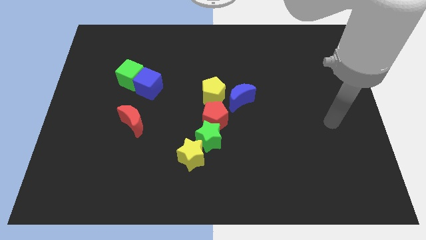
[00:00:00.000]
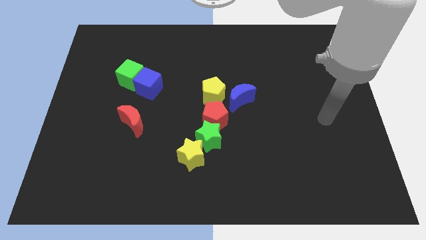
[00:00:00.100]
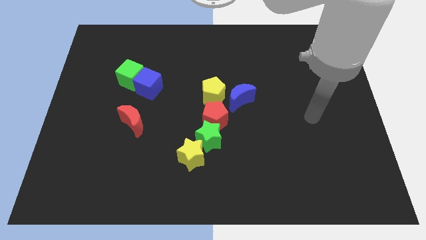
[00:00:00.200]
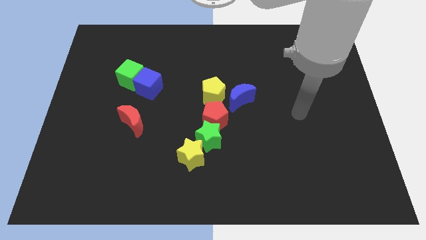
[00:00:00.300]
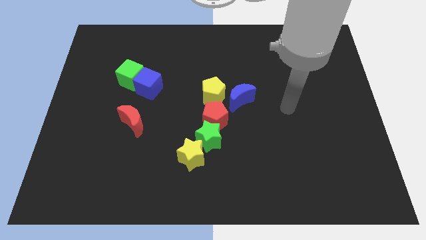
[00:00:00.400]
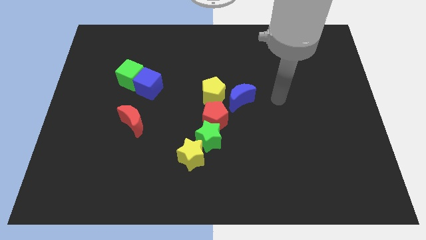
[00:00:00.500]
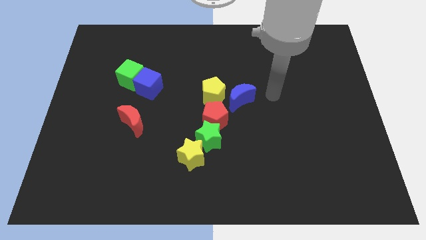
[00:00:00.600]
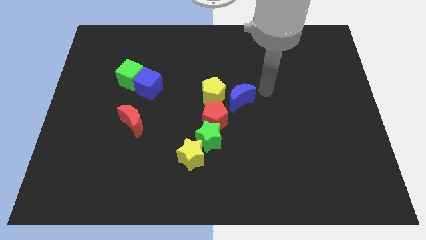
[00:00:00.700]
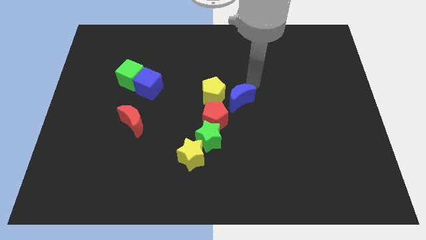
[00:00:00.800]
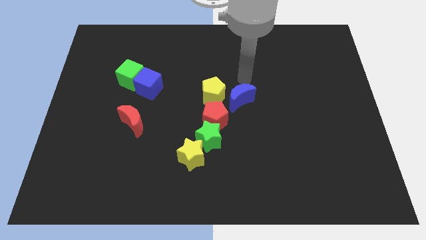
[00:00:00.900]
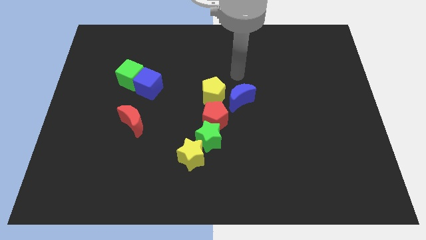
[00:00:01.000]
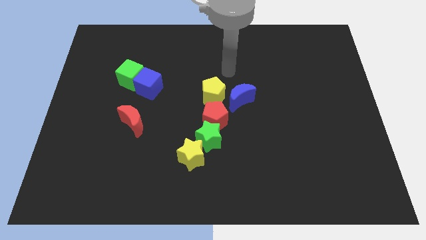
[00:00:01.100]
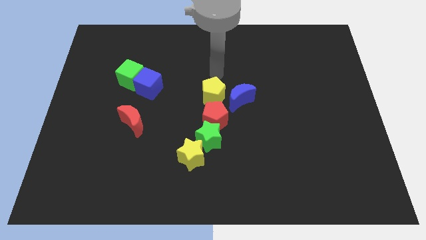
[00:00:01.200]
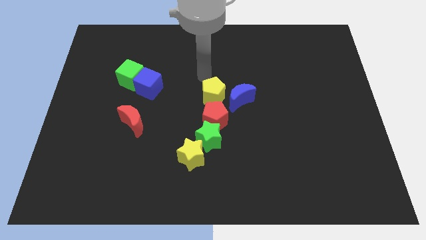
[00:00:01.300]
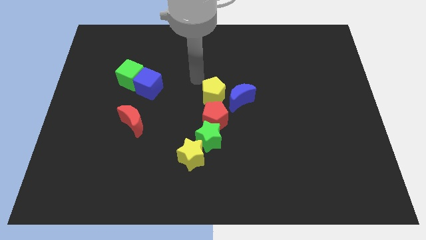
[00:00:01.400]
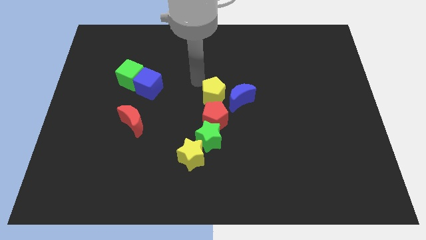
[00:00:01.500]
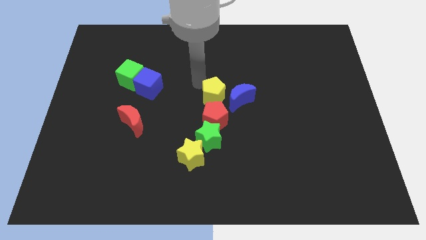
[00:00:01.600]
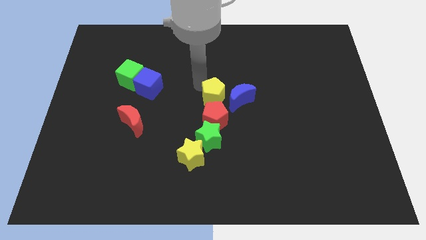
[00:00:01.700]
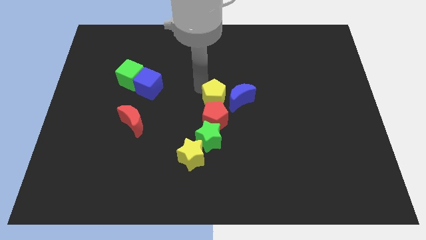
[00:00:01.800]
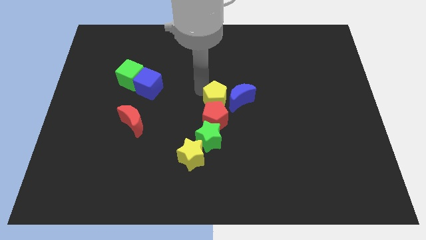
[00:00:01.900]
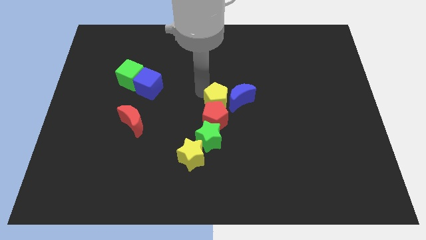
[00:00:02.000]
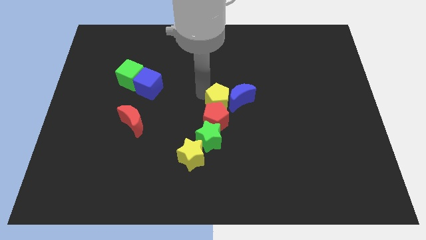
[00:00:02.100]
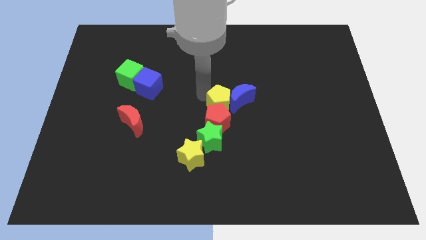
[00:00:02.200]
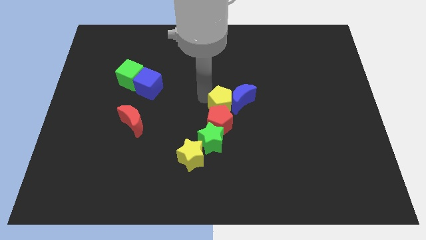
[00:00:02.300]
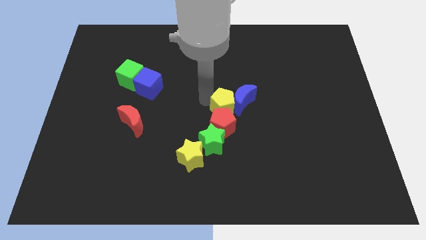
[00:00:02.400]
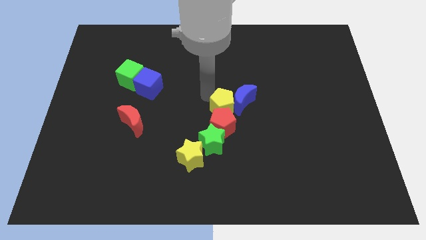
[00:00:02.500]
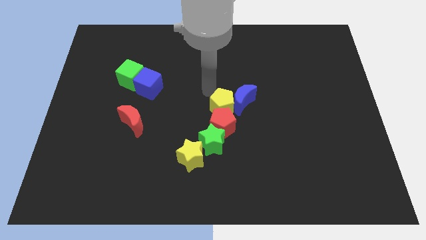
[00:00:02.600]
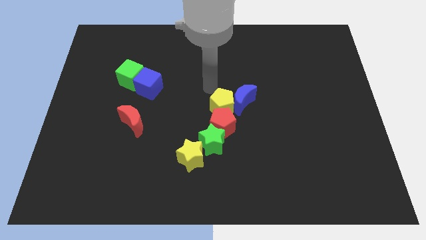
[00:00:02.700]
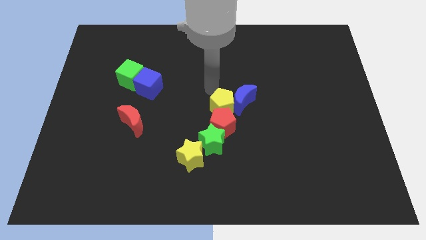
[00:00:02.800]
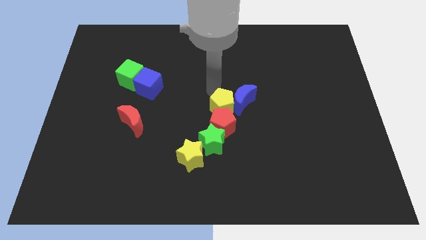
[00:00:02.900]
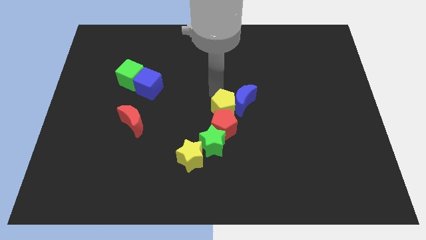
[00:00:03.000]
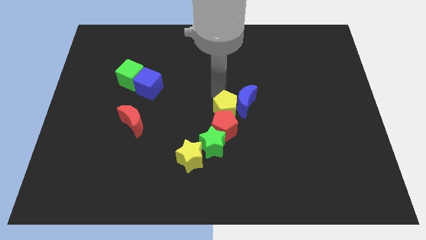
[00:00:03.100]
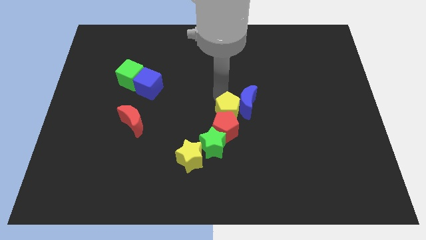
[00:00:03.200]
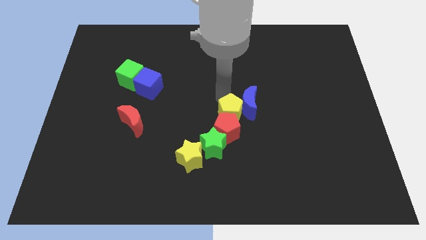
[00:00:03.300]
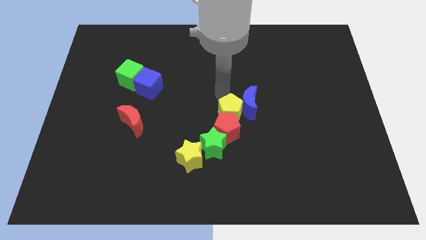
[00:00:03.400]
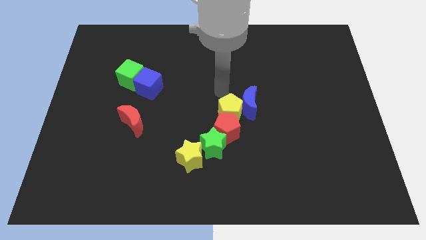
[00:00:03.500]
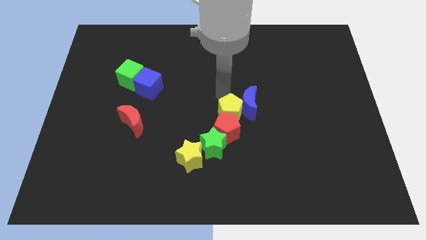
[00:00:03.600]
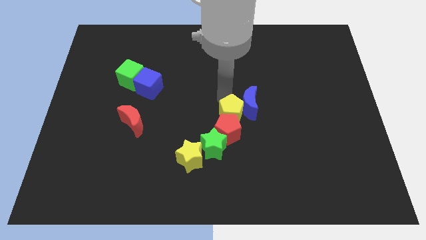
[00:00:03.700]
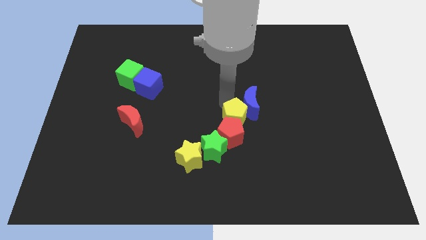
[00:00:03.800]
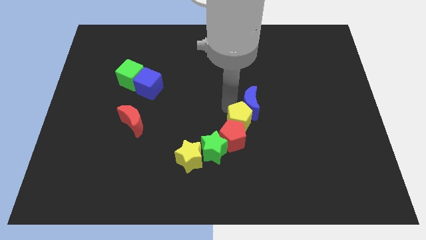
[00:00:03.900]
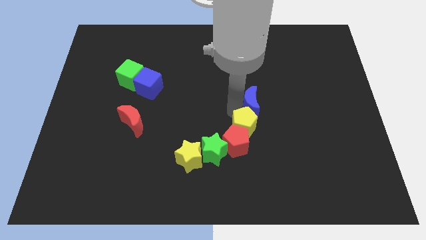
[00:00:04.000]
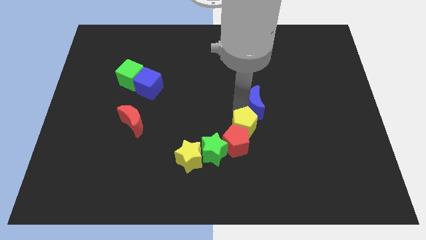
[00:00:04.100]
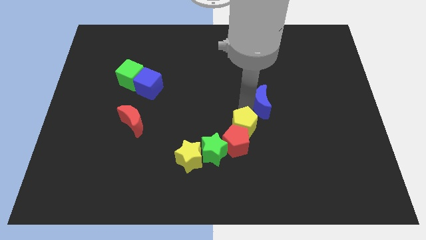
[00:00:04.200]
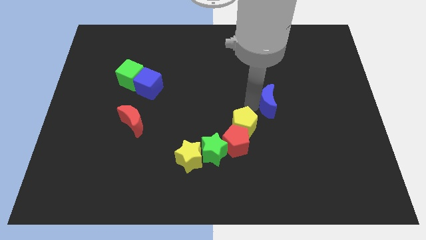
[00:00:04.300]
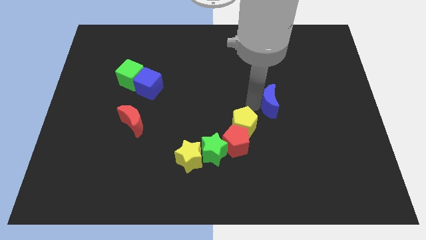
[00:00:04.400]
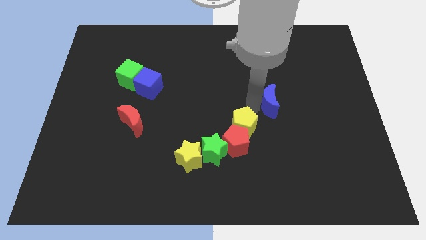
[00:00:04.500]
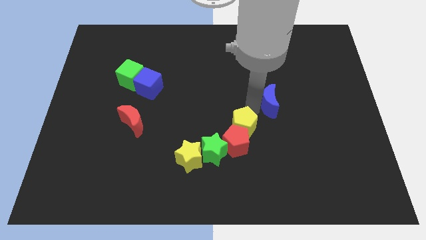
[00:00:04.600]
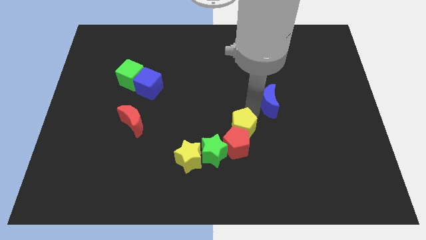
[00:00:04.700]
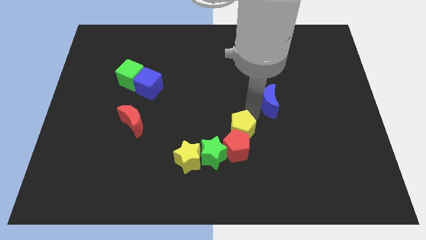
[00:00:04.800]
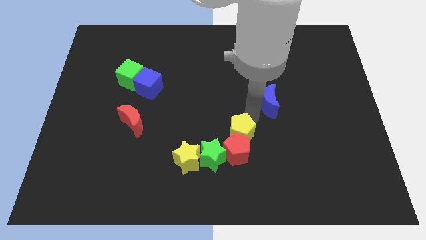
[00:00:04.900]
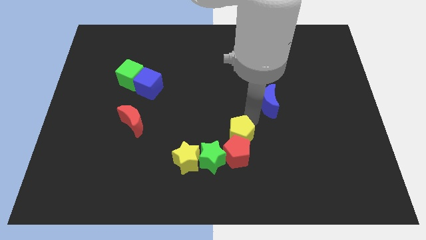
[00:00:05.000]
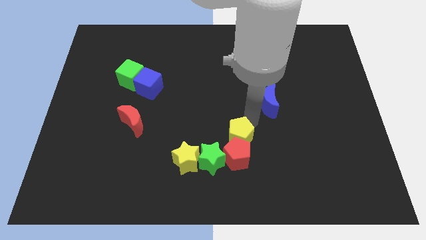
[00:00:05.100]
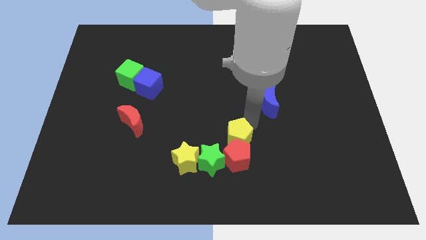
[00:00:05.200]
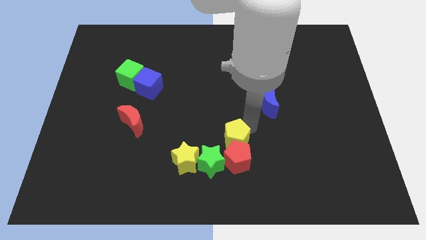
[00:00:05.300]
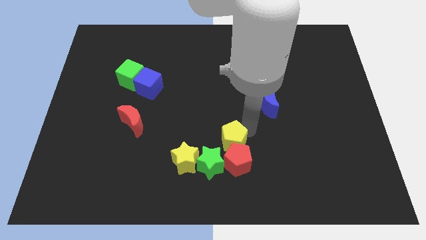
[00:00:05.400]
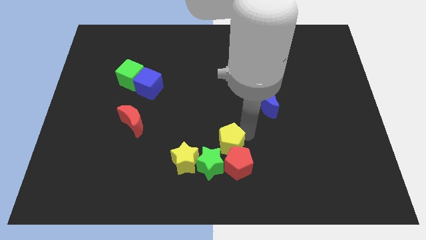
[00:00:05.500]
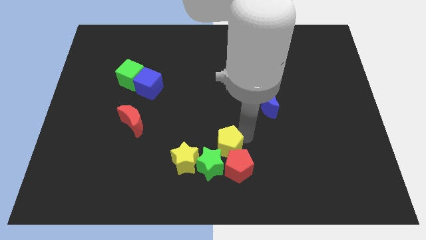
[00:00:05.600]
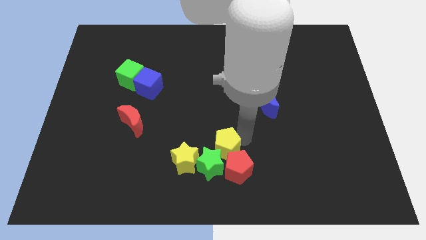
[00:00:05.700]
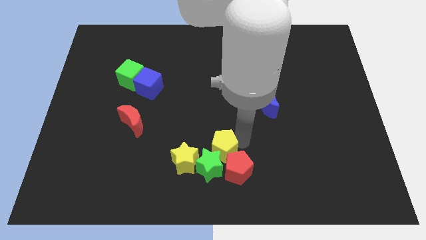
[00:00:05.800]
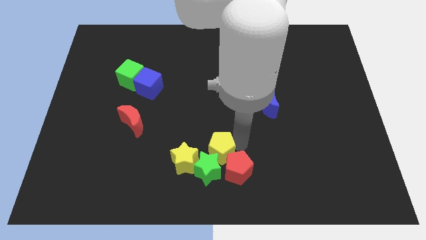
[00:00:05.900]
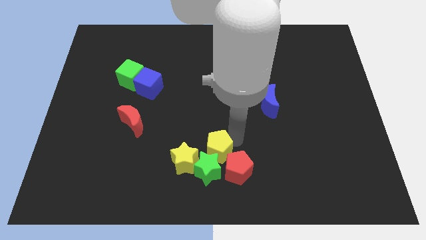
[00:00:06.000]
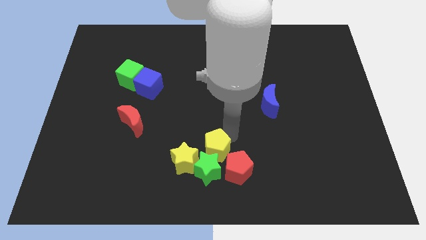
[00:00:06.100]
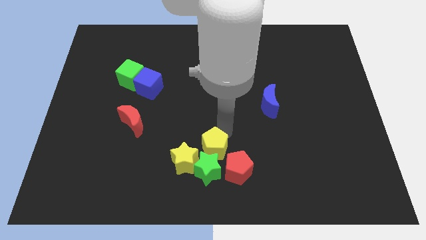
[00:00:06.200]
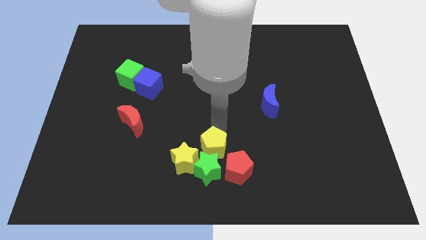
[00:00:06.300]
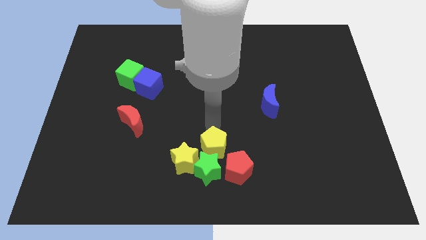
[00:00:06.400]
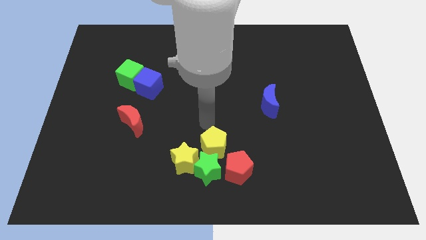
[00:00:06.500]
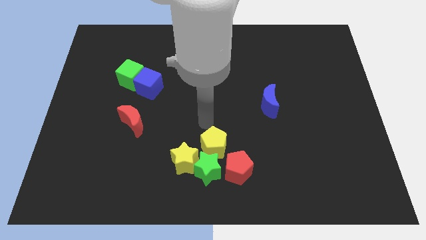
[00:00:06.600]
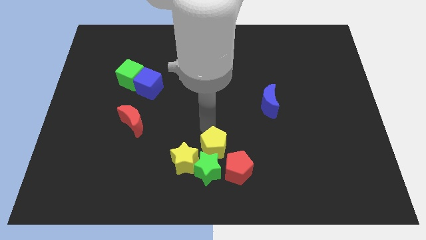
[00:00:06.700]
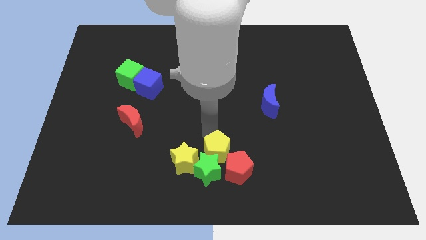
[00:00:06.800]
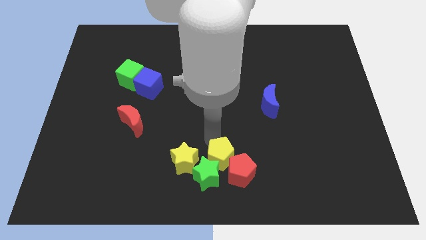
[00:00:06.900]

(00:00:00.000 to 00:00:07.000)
slide the yellow pentagon to the bottom
